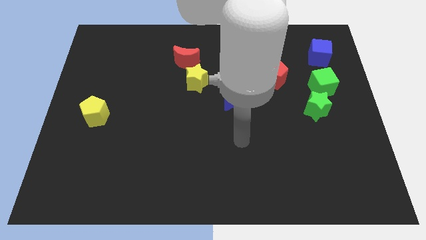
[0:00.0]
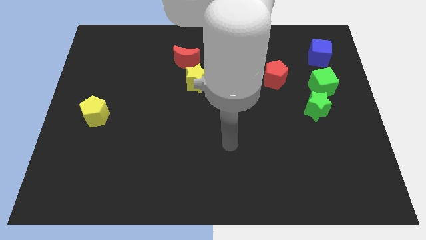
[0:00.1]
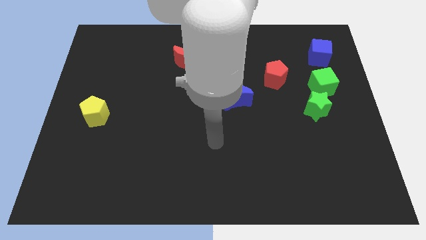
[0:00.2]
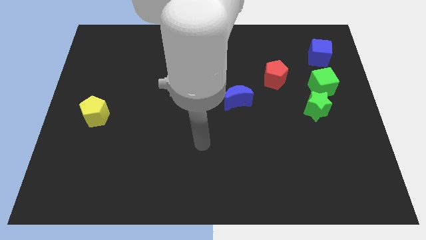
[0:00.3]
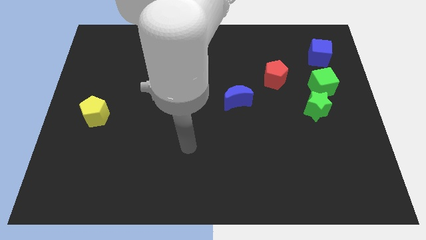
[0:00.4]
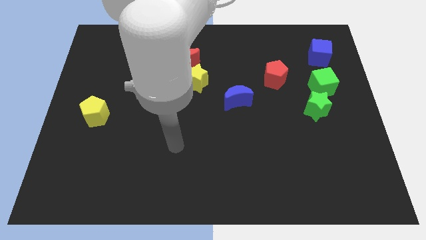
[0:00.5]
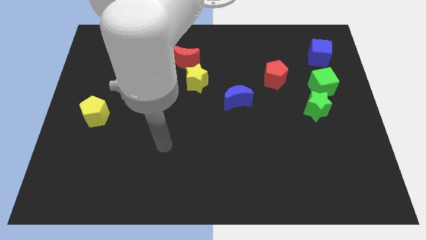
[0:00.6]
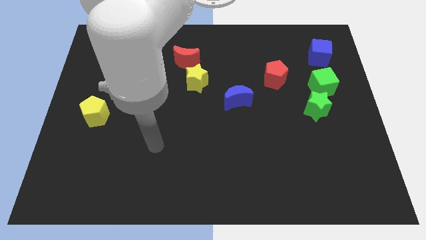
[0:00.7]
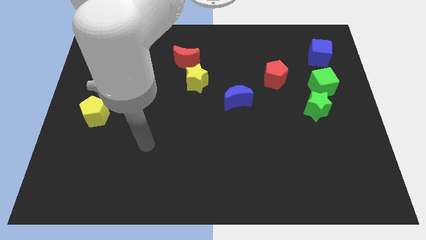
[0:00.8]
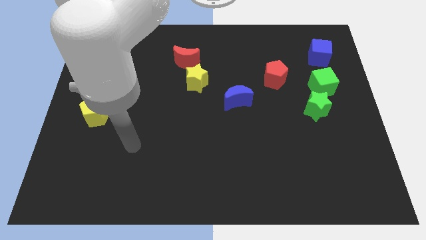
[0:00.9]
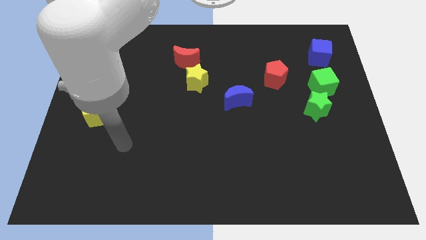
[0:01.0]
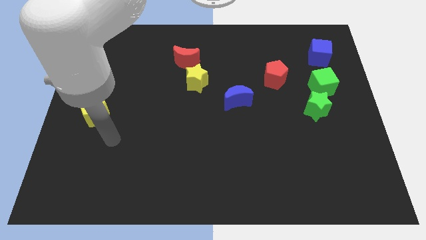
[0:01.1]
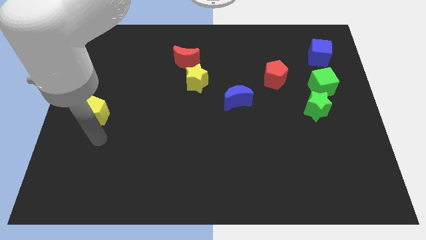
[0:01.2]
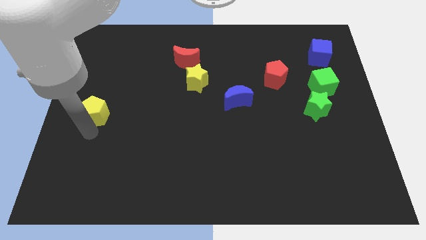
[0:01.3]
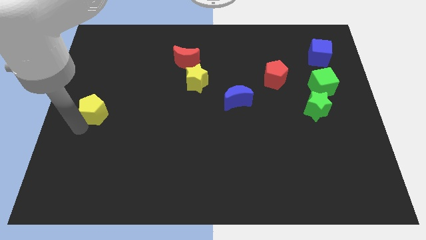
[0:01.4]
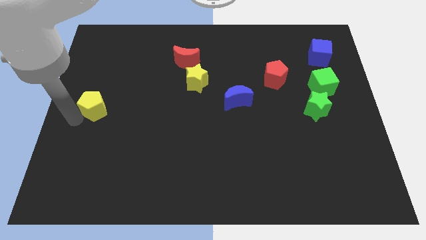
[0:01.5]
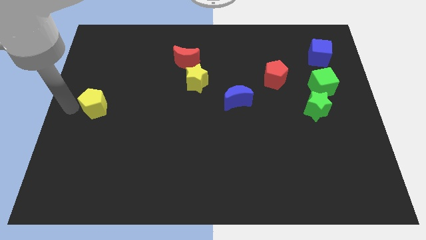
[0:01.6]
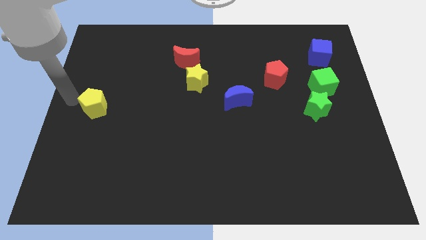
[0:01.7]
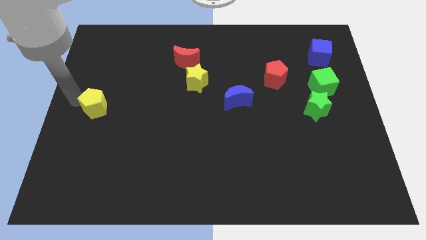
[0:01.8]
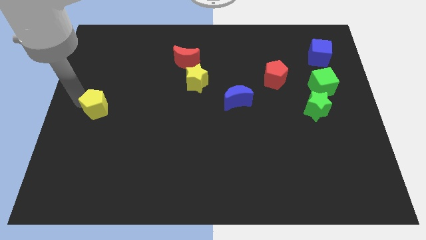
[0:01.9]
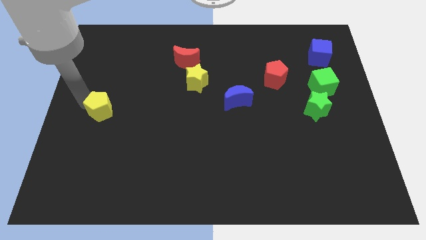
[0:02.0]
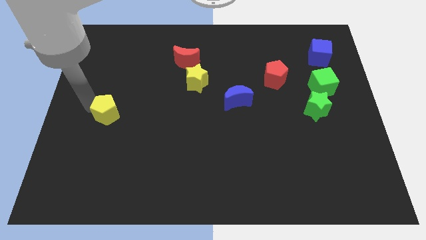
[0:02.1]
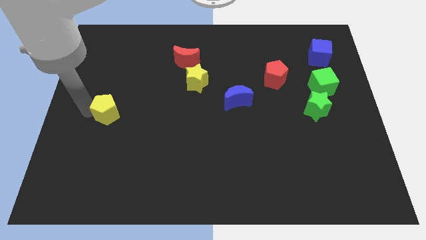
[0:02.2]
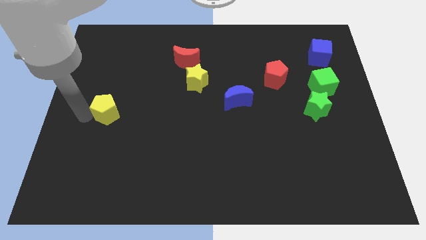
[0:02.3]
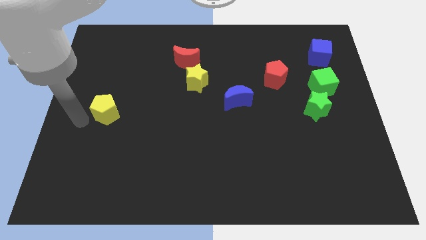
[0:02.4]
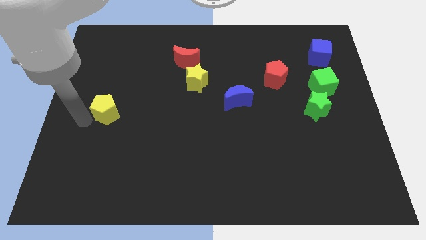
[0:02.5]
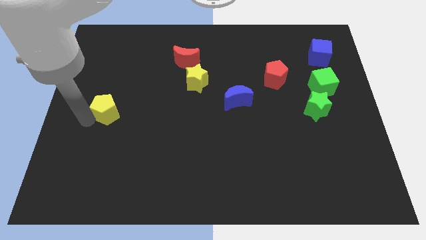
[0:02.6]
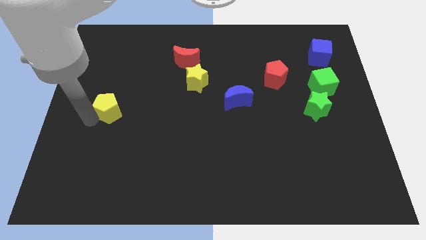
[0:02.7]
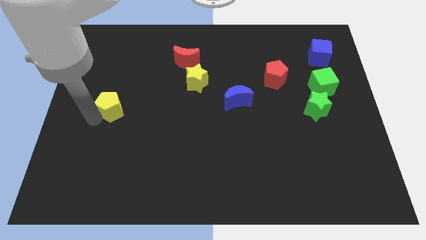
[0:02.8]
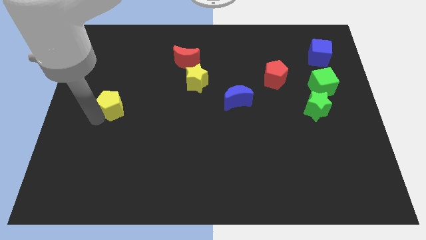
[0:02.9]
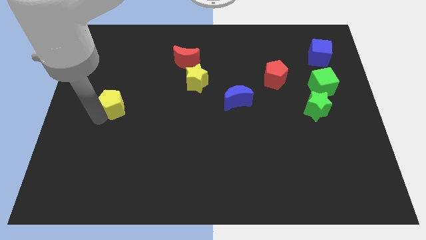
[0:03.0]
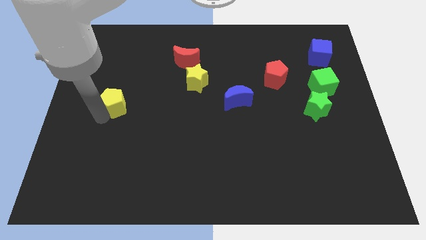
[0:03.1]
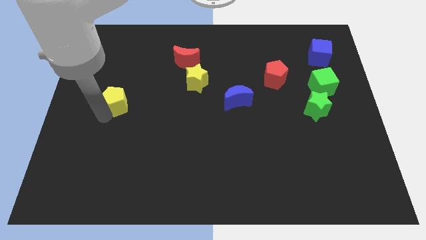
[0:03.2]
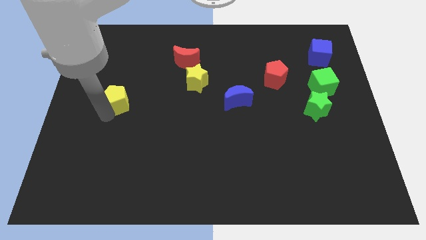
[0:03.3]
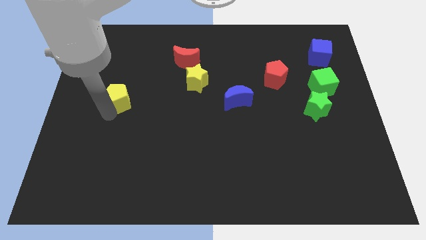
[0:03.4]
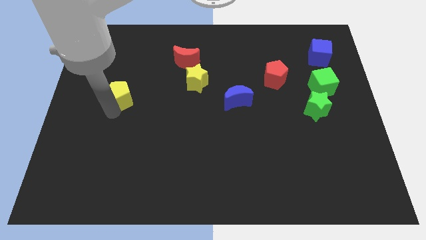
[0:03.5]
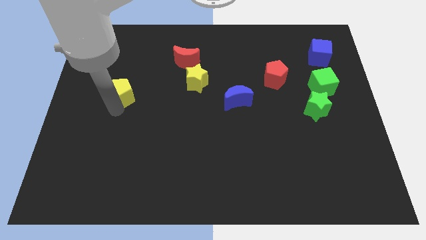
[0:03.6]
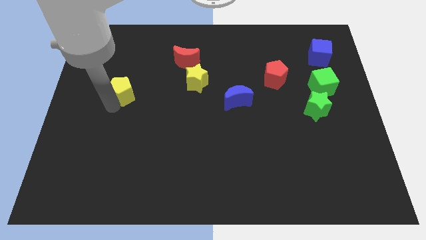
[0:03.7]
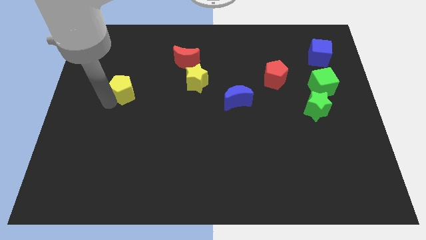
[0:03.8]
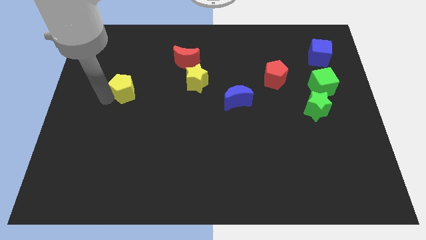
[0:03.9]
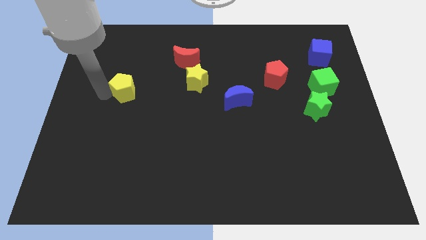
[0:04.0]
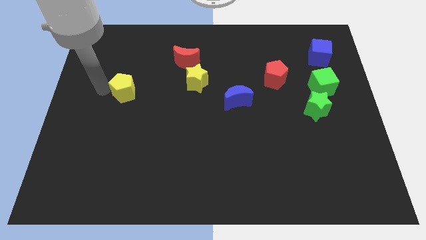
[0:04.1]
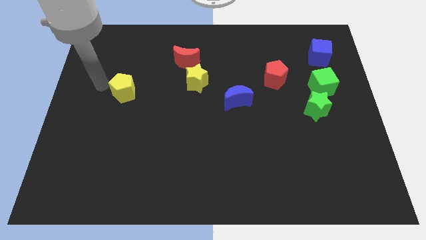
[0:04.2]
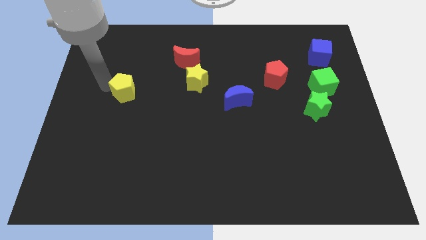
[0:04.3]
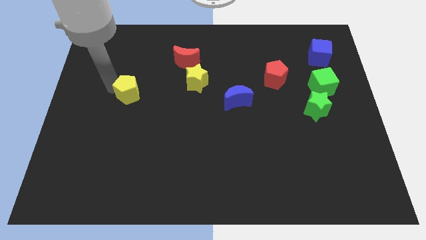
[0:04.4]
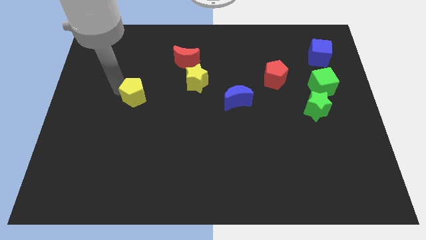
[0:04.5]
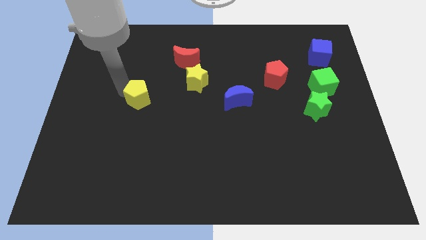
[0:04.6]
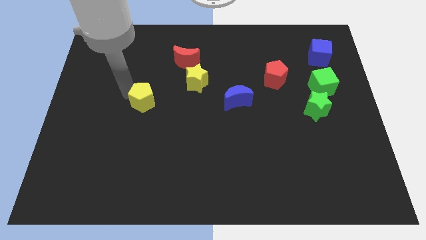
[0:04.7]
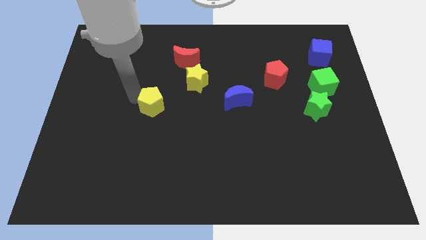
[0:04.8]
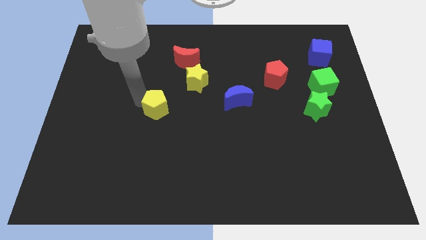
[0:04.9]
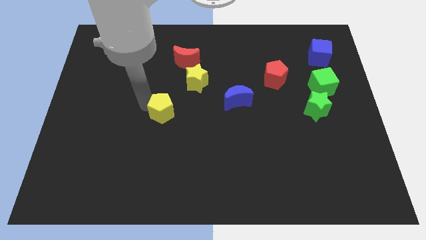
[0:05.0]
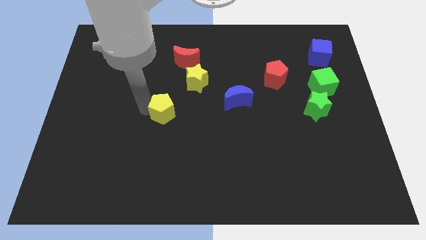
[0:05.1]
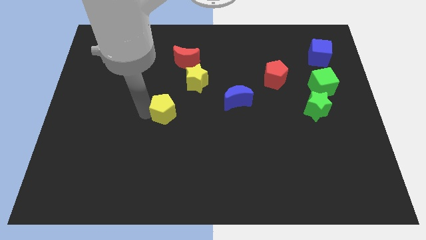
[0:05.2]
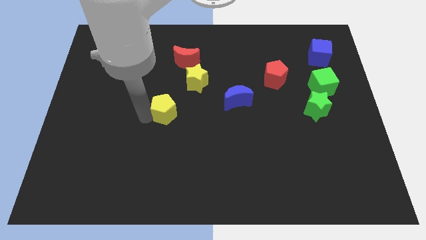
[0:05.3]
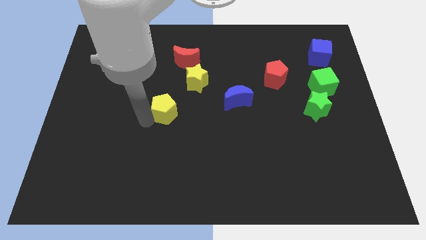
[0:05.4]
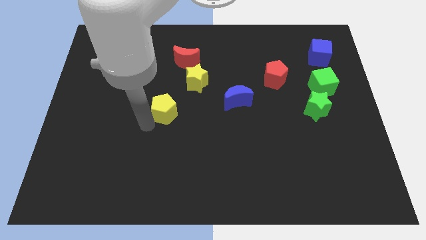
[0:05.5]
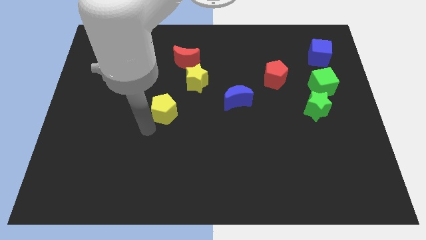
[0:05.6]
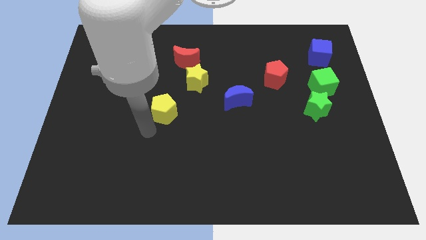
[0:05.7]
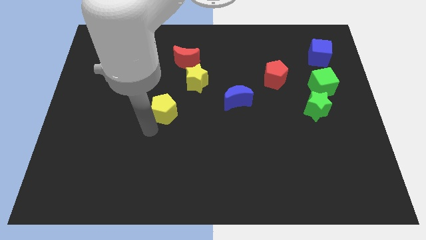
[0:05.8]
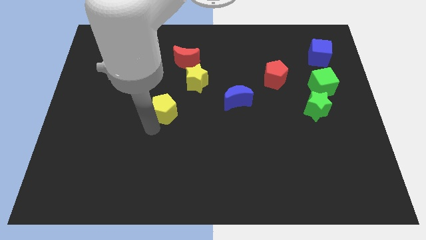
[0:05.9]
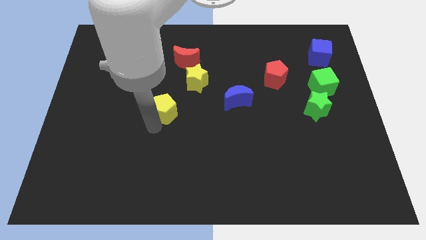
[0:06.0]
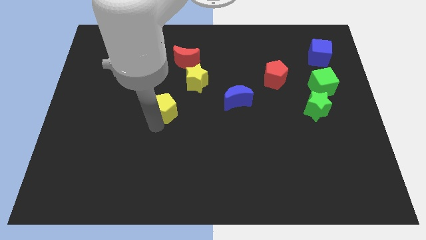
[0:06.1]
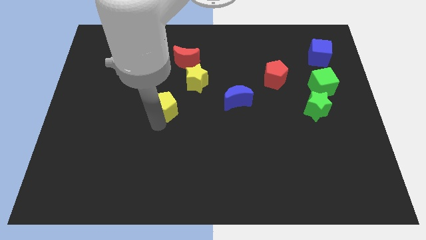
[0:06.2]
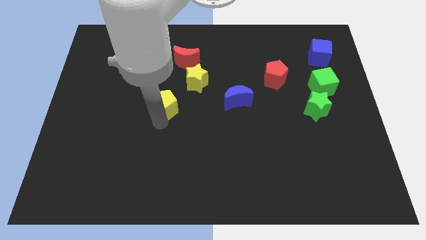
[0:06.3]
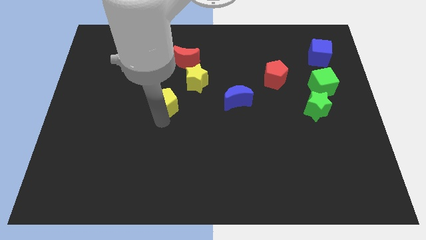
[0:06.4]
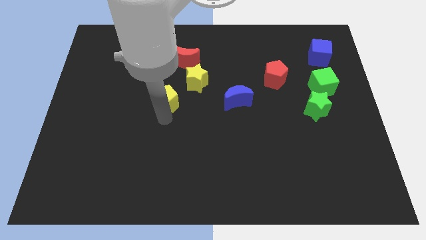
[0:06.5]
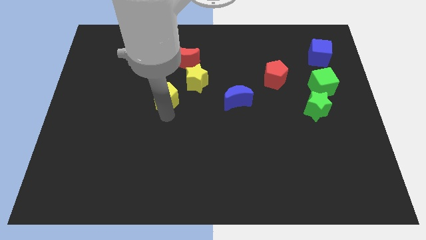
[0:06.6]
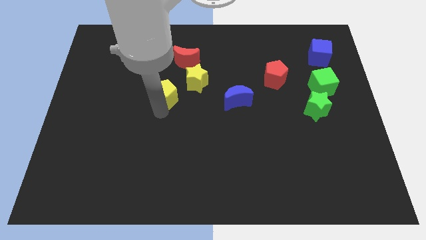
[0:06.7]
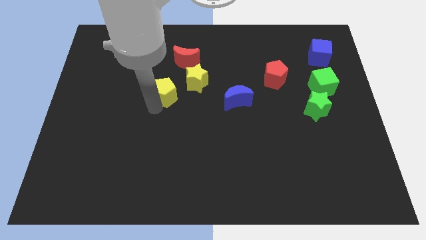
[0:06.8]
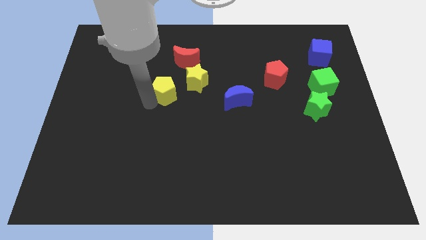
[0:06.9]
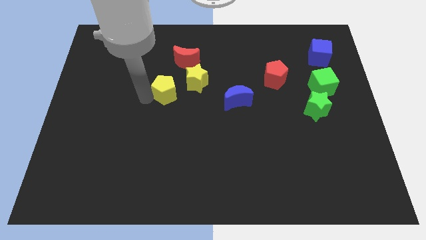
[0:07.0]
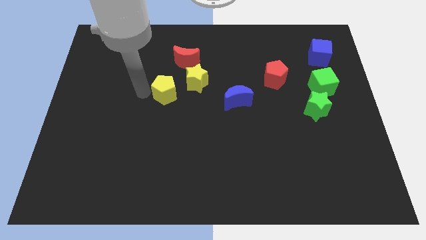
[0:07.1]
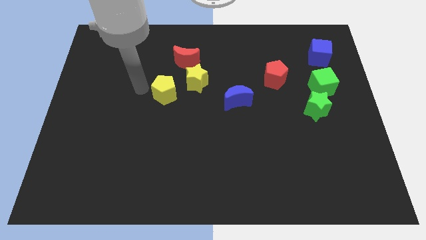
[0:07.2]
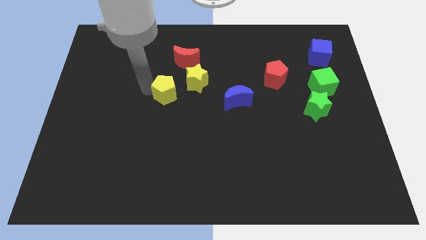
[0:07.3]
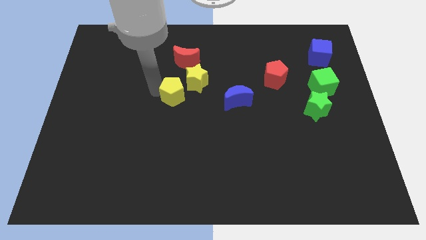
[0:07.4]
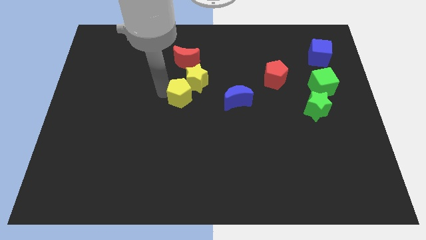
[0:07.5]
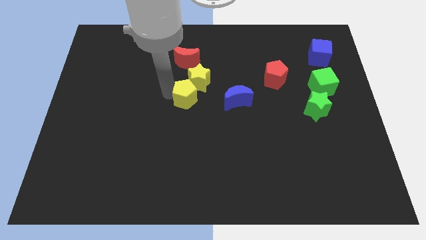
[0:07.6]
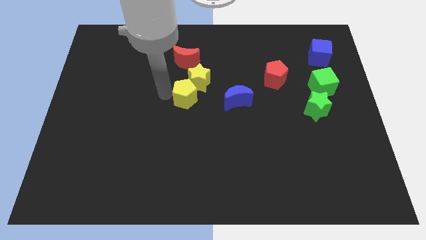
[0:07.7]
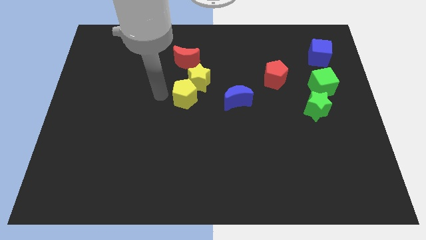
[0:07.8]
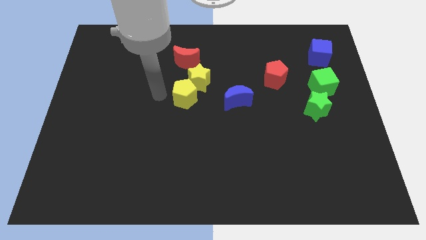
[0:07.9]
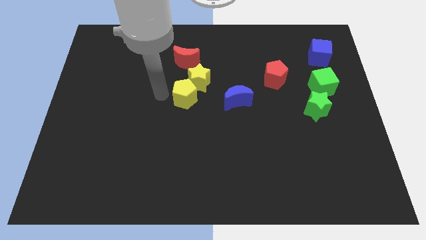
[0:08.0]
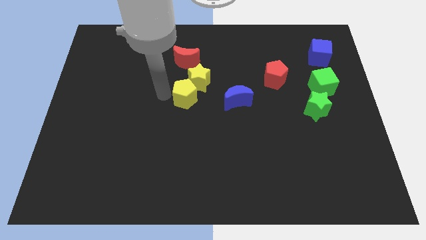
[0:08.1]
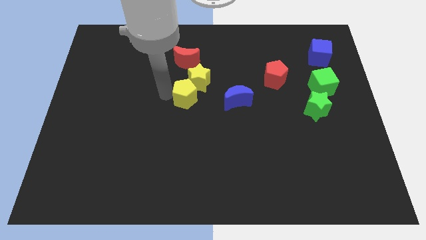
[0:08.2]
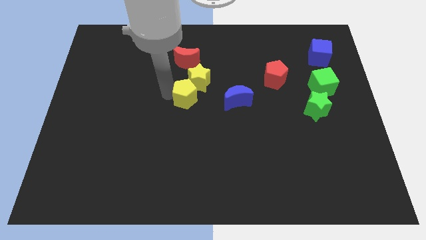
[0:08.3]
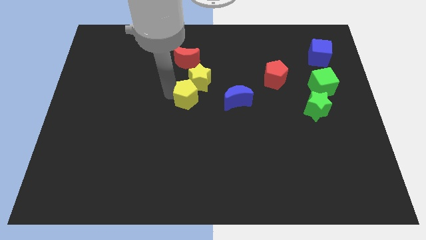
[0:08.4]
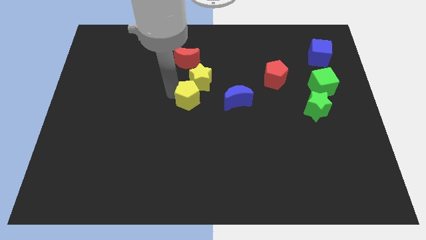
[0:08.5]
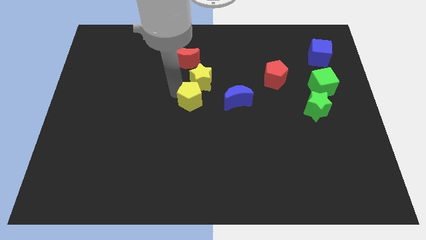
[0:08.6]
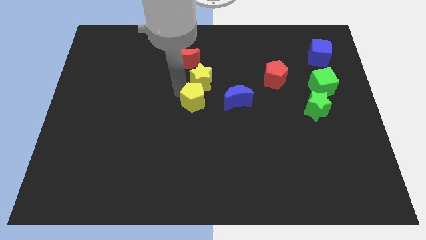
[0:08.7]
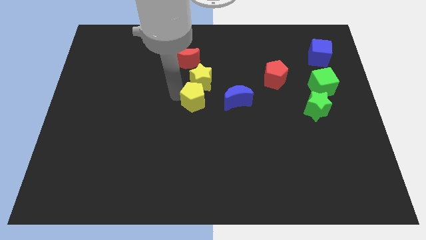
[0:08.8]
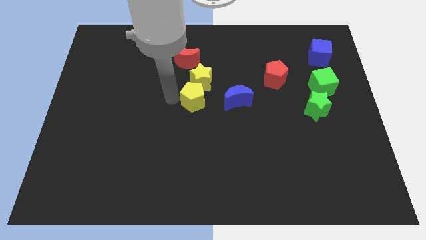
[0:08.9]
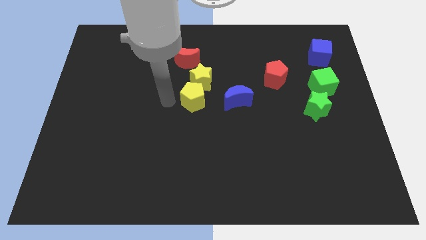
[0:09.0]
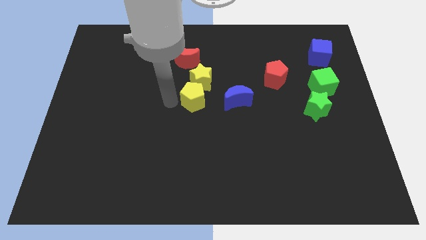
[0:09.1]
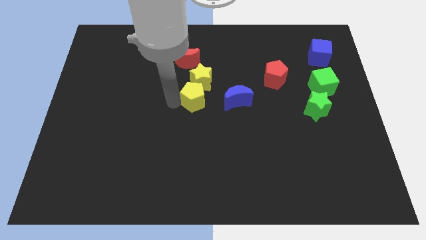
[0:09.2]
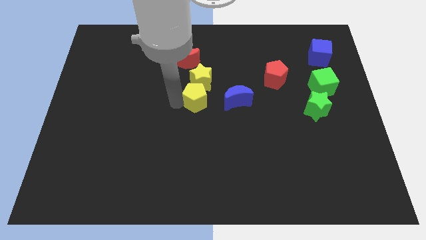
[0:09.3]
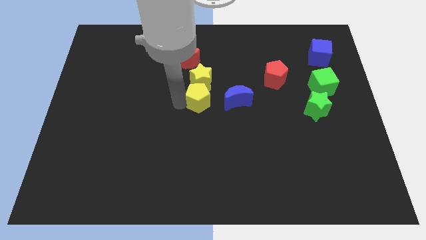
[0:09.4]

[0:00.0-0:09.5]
slide the yellow pentagon to the bottom right side of the yellow star
